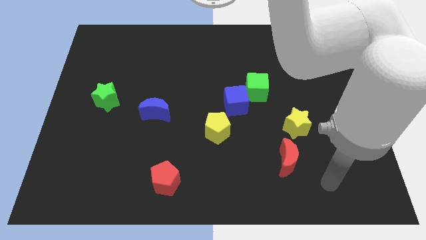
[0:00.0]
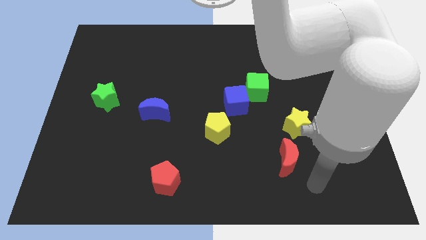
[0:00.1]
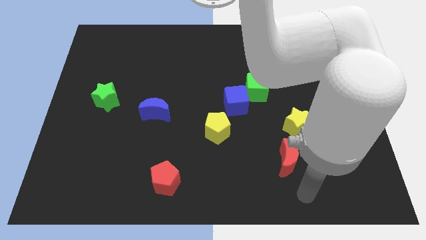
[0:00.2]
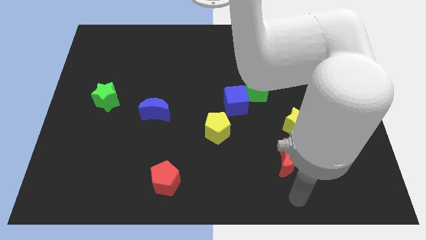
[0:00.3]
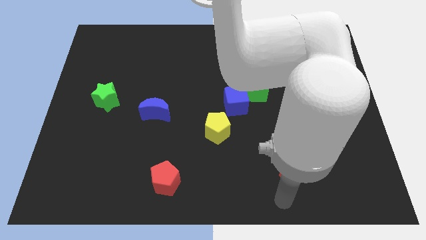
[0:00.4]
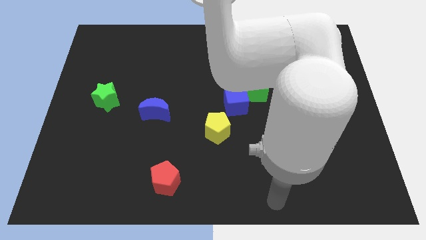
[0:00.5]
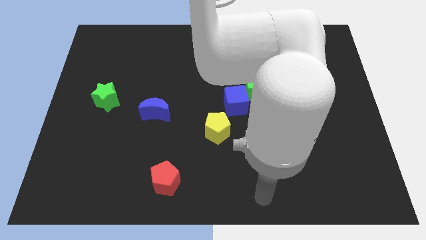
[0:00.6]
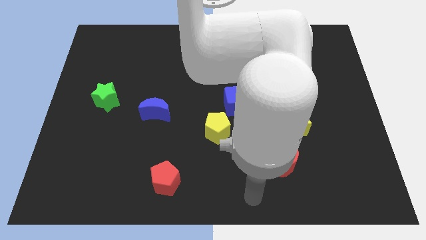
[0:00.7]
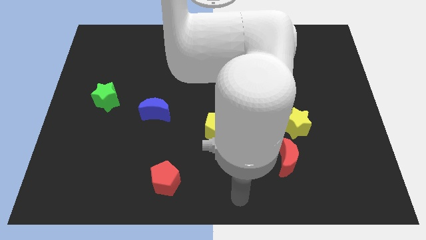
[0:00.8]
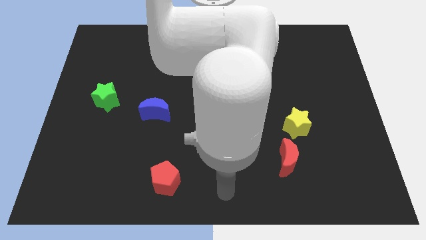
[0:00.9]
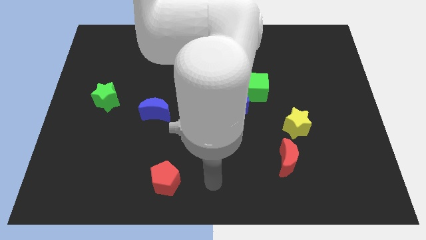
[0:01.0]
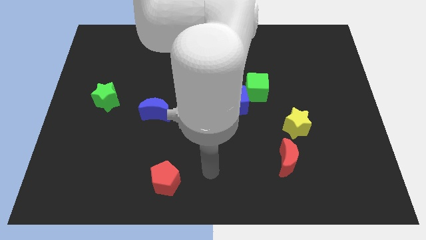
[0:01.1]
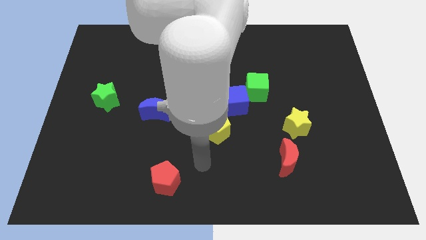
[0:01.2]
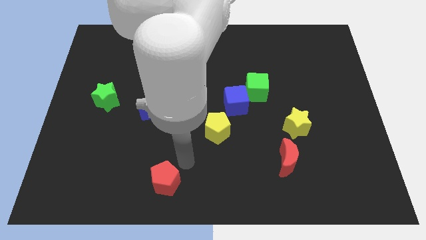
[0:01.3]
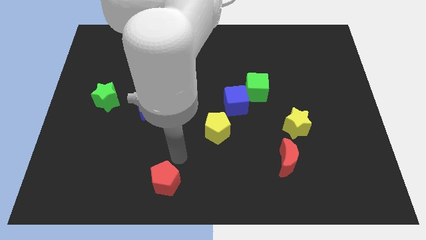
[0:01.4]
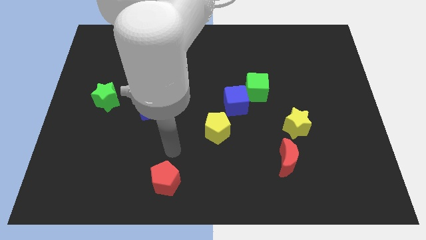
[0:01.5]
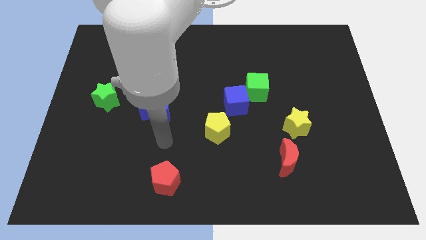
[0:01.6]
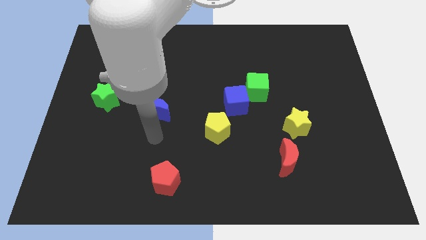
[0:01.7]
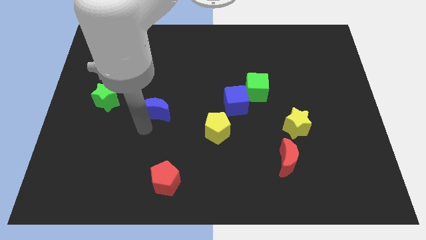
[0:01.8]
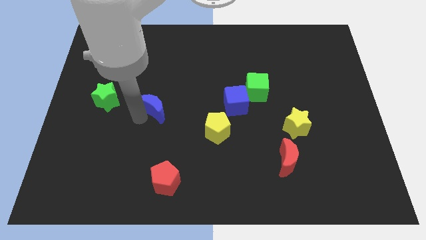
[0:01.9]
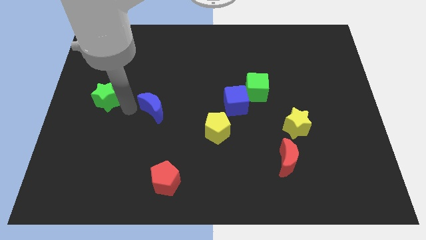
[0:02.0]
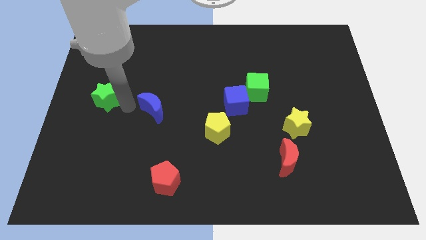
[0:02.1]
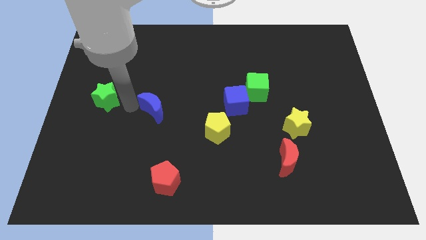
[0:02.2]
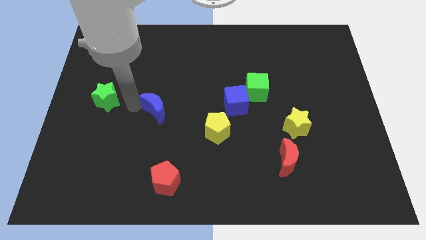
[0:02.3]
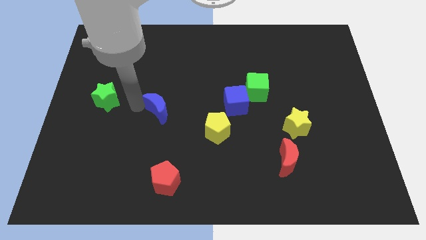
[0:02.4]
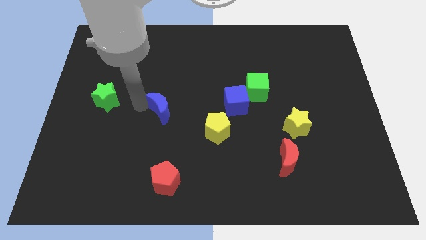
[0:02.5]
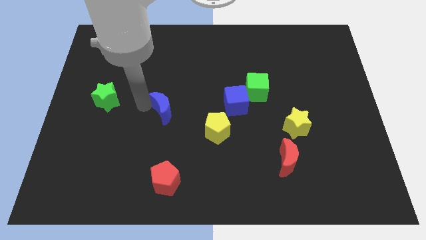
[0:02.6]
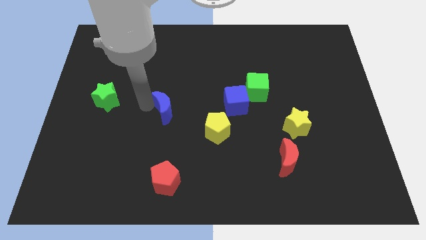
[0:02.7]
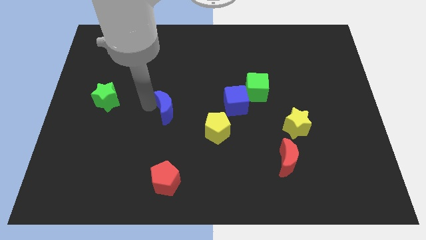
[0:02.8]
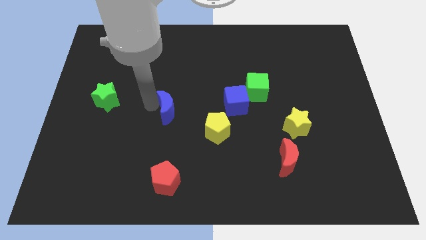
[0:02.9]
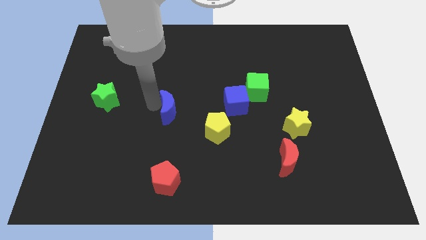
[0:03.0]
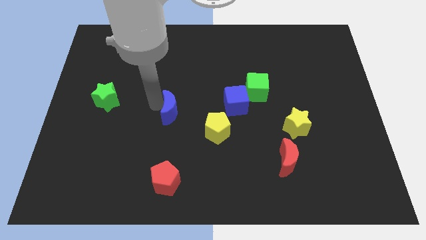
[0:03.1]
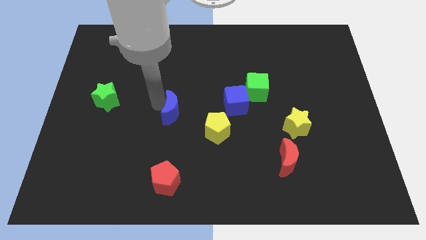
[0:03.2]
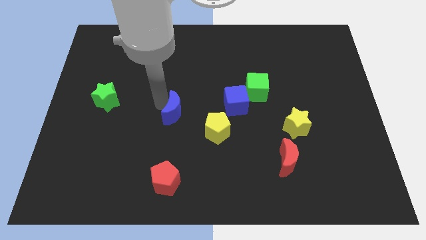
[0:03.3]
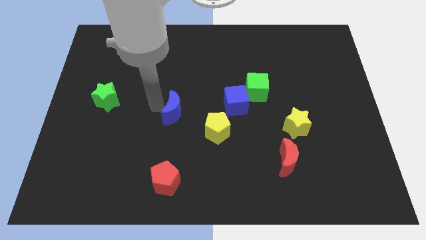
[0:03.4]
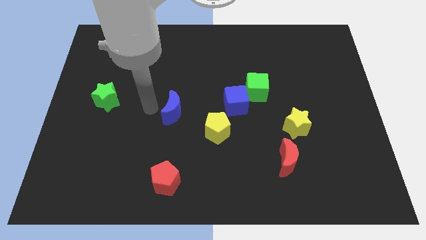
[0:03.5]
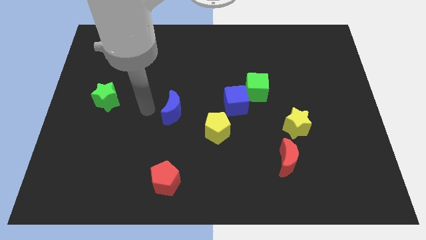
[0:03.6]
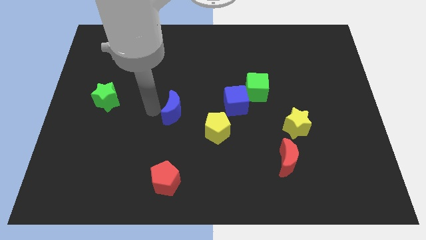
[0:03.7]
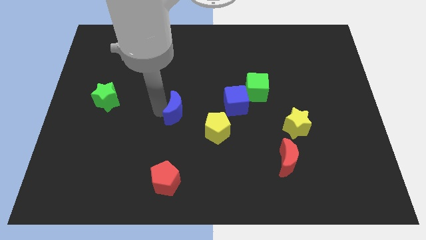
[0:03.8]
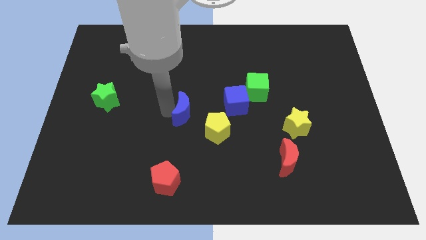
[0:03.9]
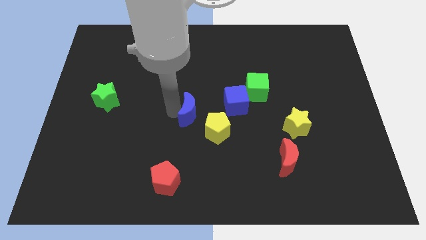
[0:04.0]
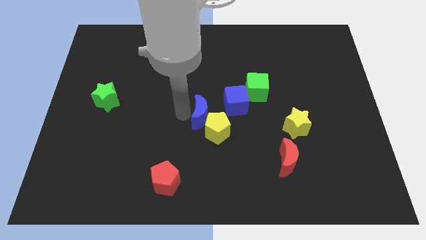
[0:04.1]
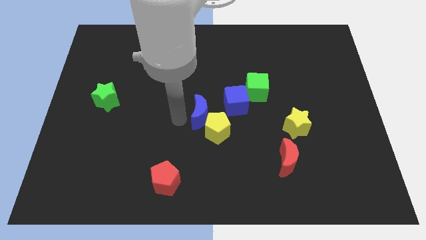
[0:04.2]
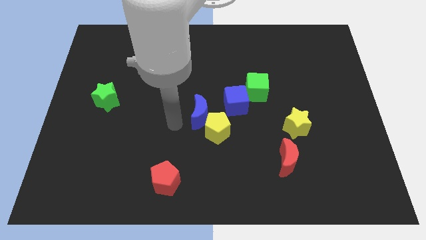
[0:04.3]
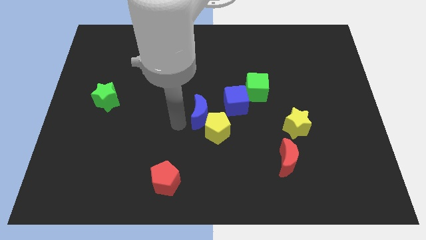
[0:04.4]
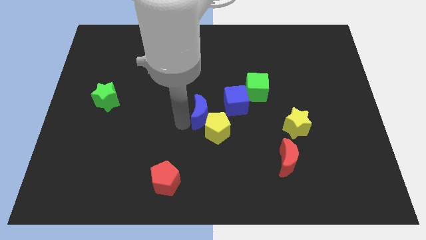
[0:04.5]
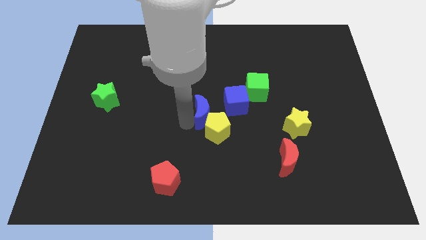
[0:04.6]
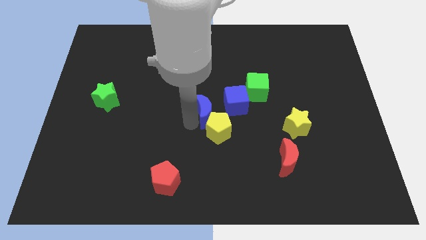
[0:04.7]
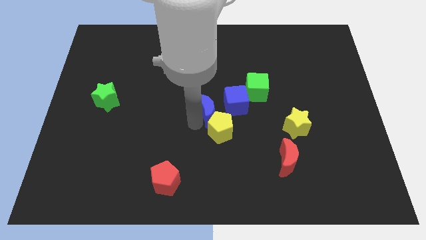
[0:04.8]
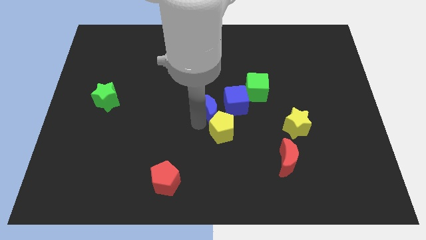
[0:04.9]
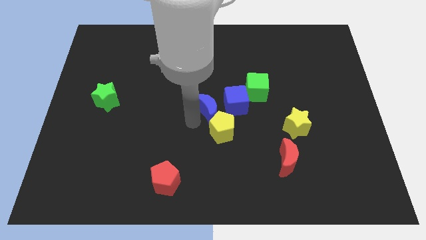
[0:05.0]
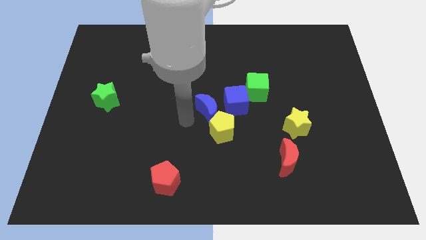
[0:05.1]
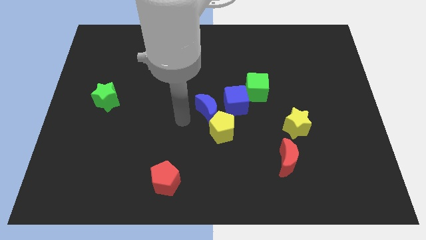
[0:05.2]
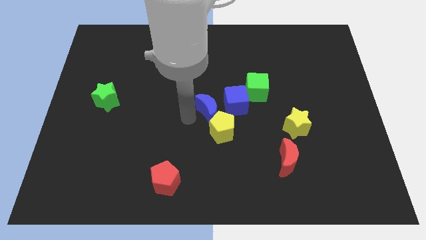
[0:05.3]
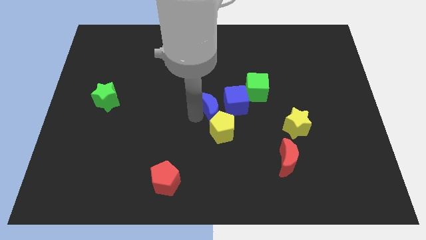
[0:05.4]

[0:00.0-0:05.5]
put the blue moon towards the blue cube

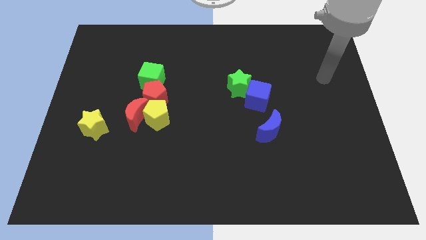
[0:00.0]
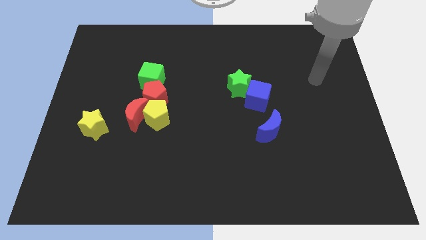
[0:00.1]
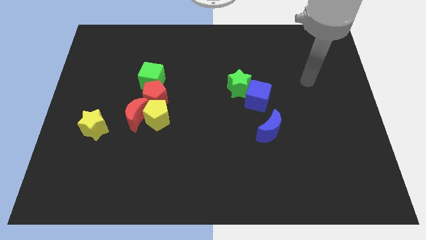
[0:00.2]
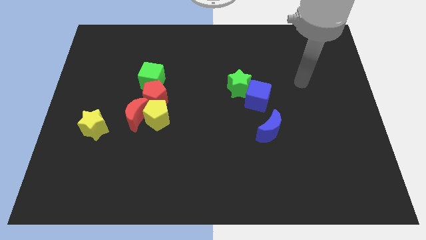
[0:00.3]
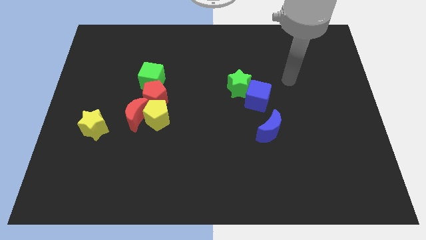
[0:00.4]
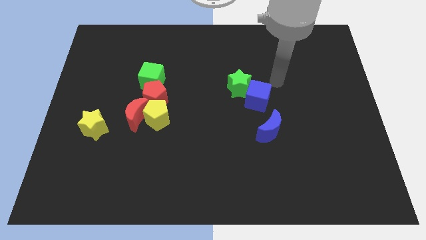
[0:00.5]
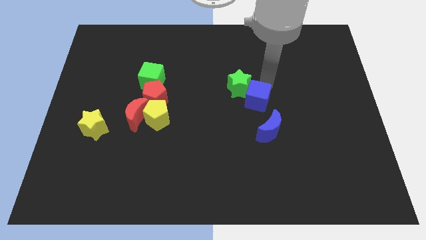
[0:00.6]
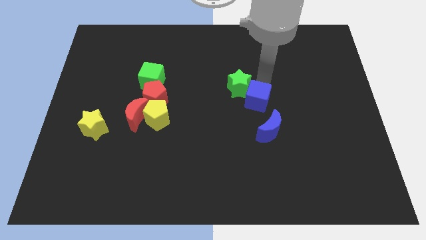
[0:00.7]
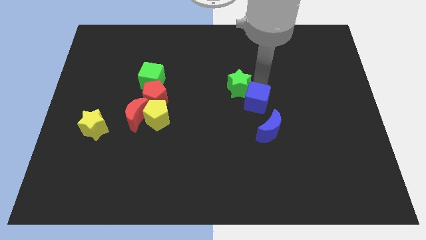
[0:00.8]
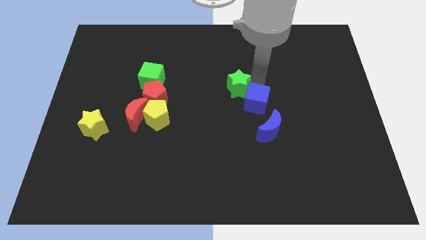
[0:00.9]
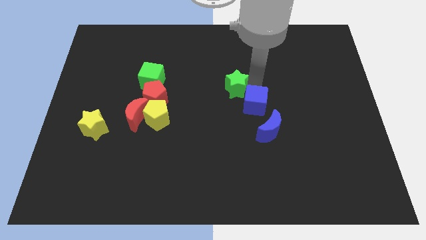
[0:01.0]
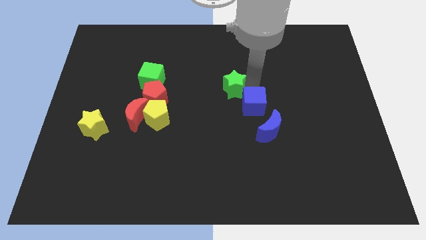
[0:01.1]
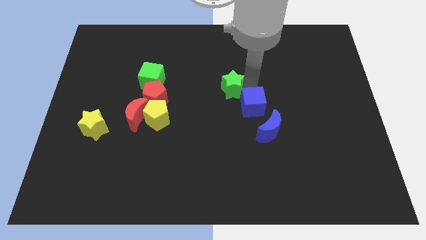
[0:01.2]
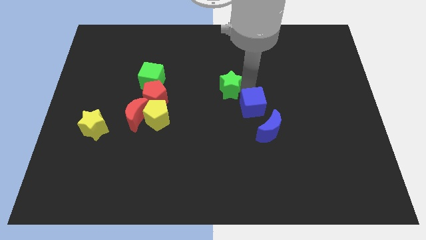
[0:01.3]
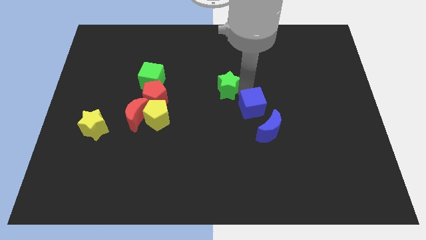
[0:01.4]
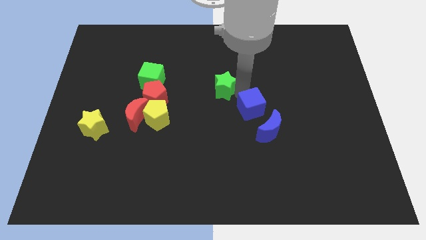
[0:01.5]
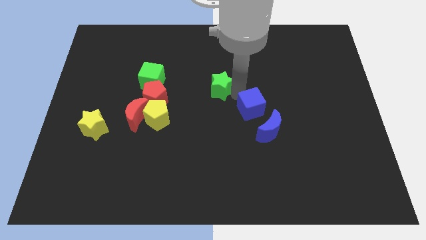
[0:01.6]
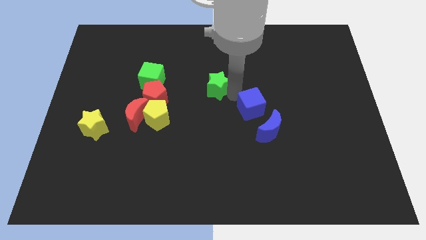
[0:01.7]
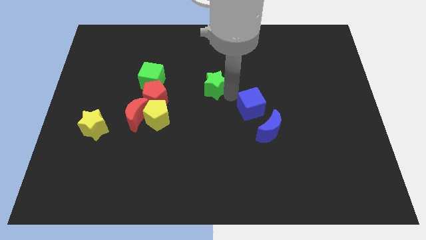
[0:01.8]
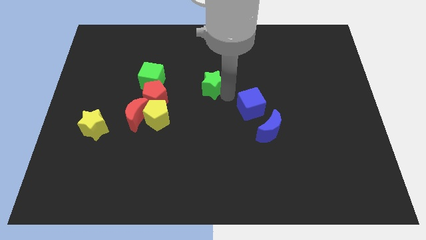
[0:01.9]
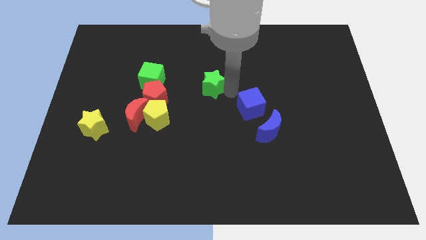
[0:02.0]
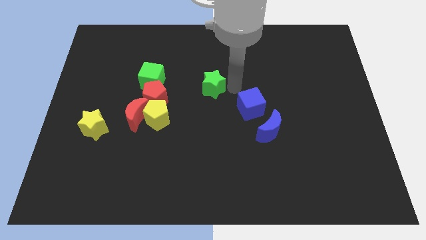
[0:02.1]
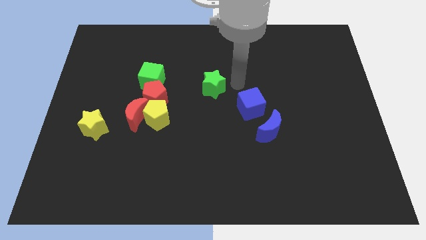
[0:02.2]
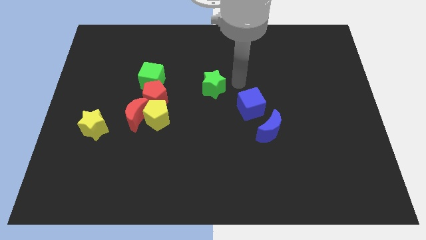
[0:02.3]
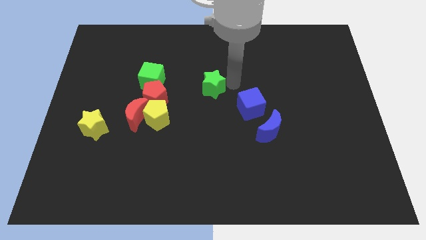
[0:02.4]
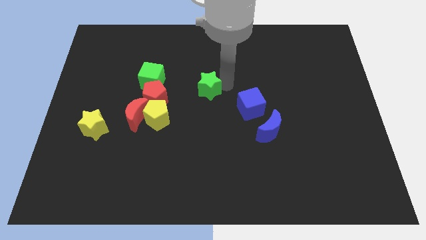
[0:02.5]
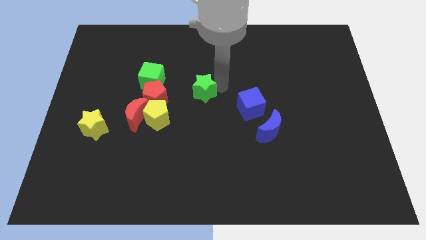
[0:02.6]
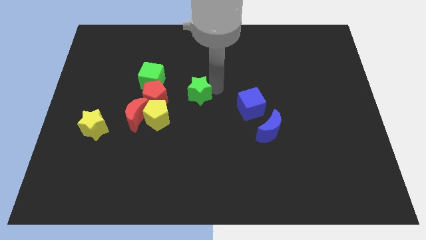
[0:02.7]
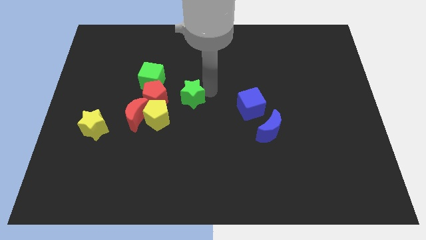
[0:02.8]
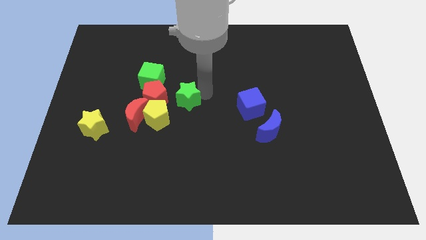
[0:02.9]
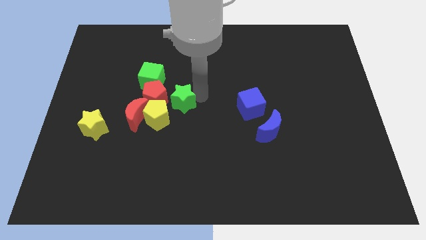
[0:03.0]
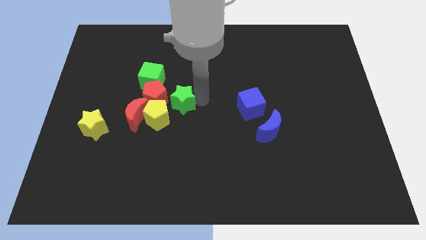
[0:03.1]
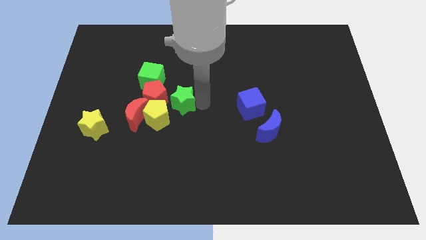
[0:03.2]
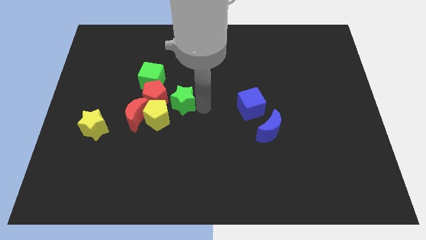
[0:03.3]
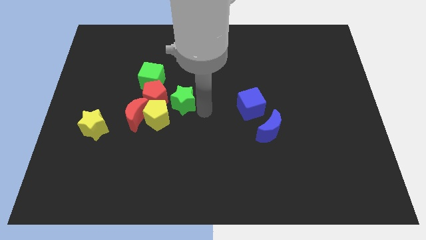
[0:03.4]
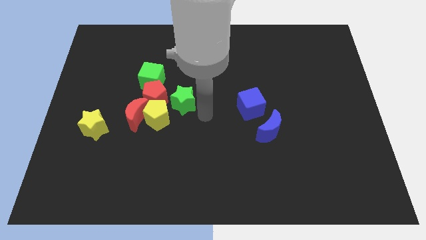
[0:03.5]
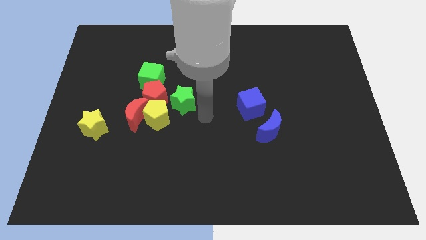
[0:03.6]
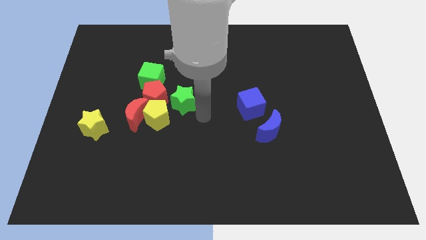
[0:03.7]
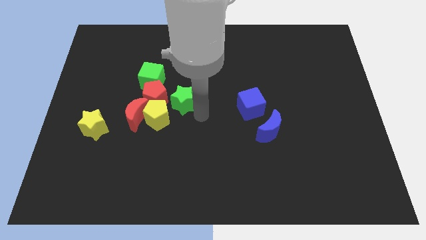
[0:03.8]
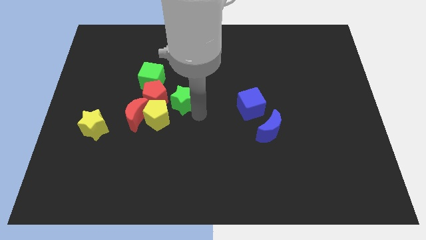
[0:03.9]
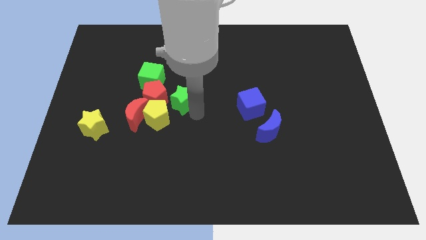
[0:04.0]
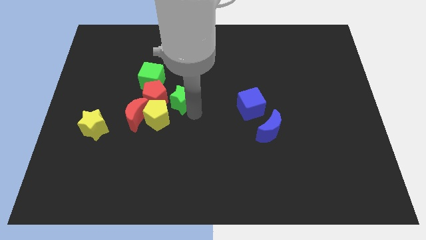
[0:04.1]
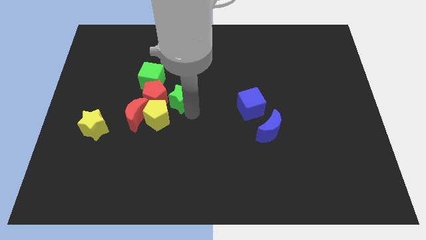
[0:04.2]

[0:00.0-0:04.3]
slide the green star next to the red pentagon
